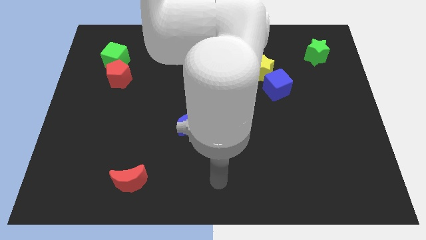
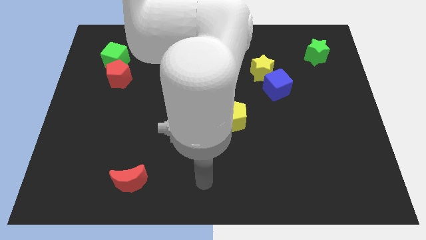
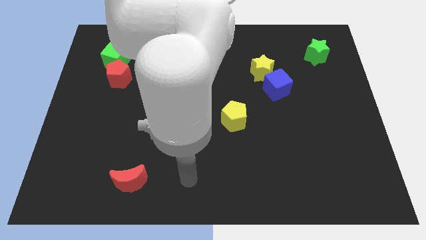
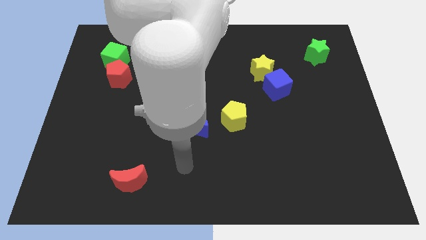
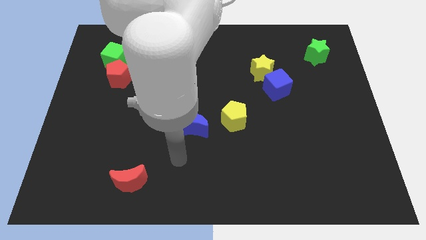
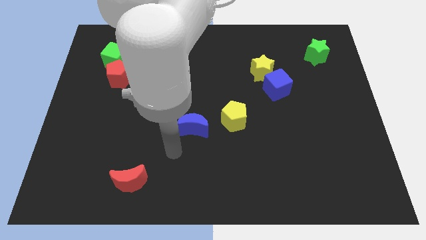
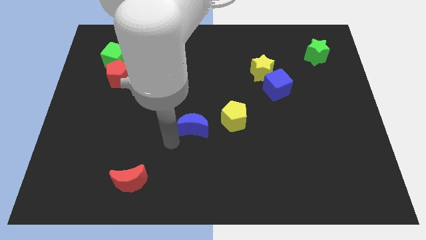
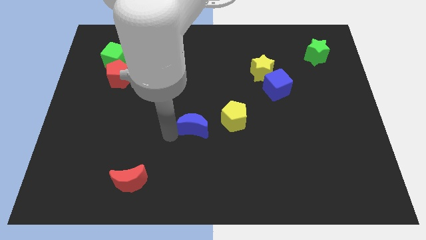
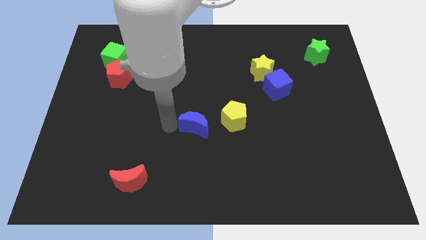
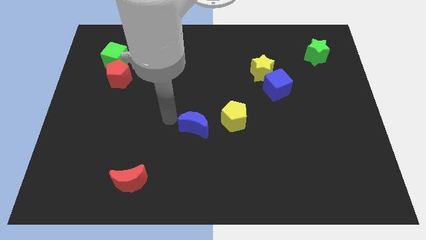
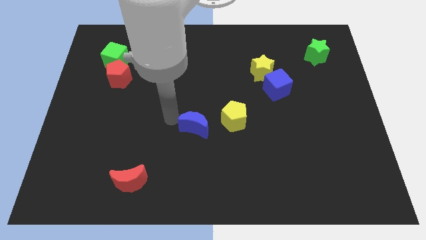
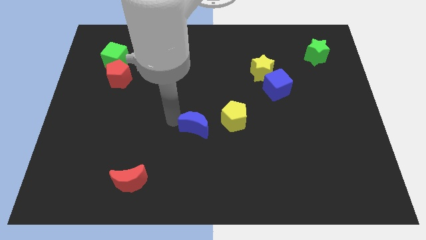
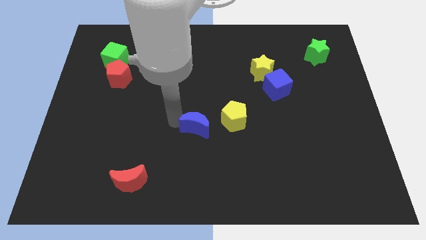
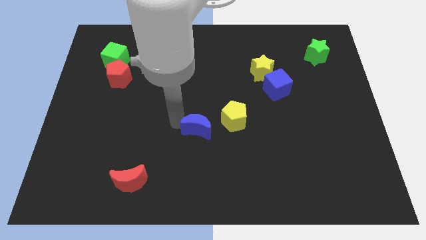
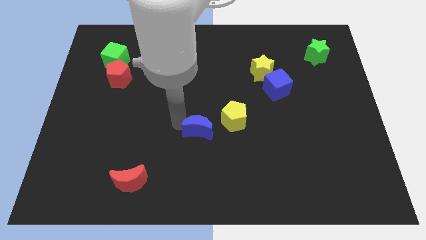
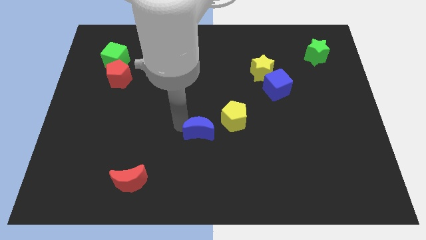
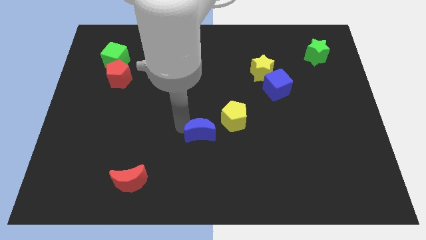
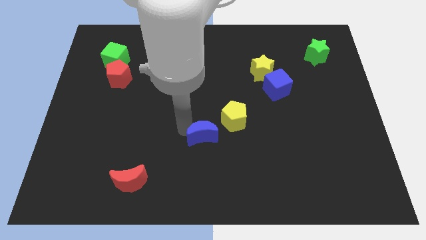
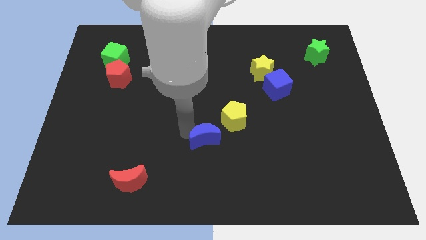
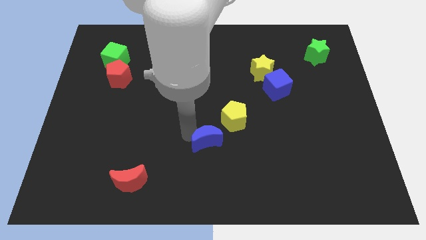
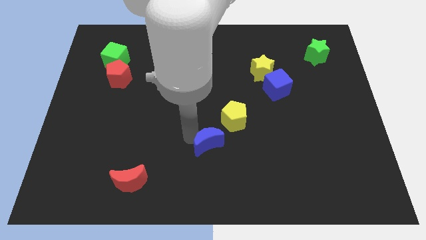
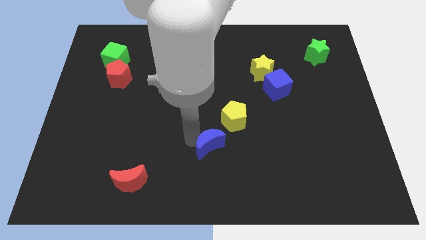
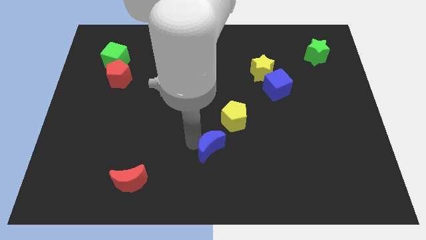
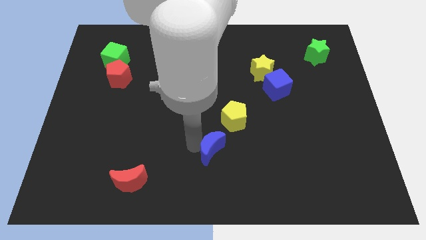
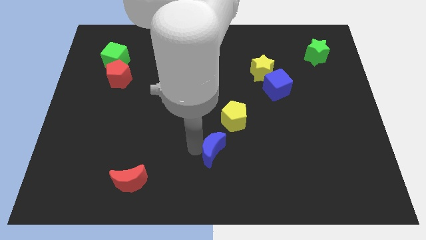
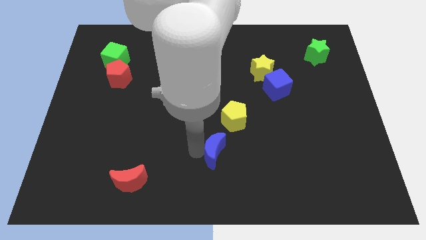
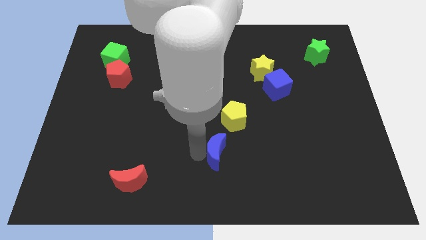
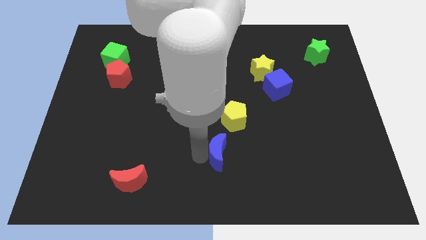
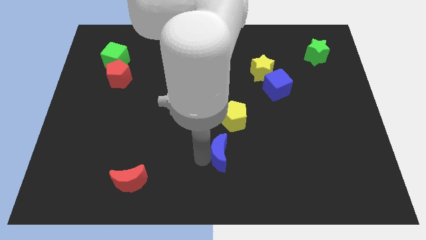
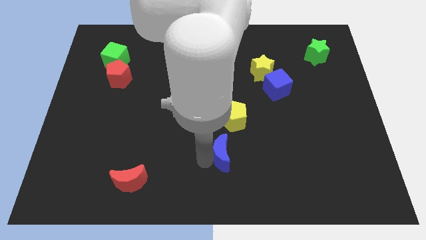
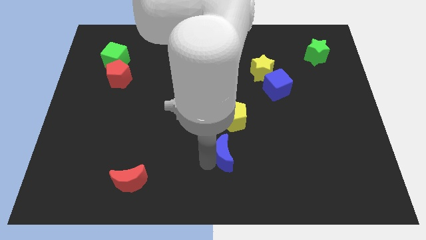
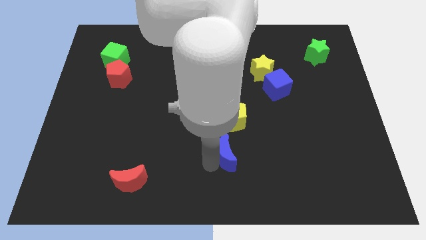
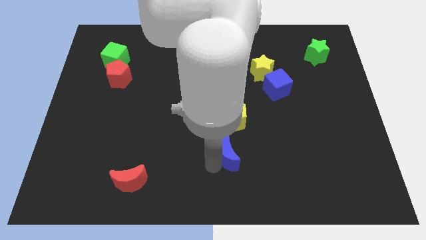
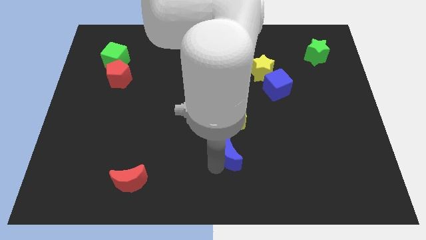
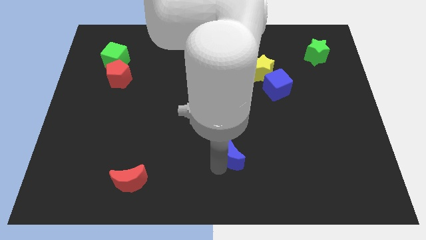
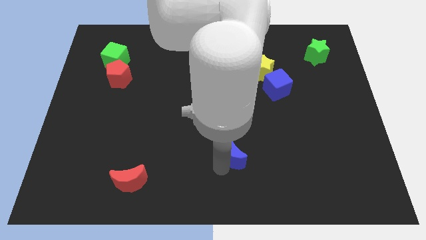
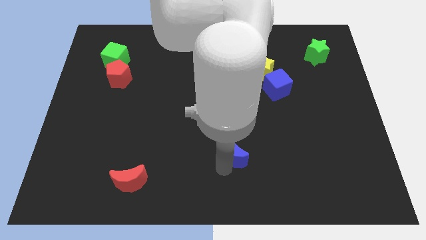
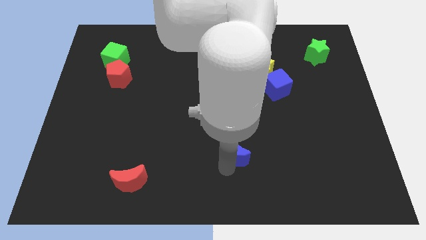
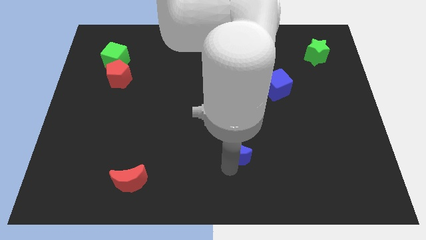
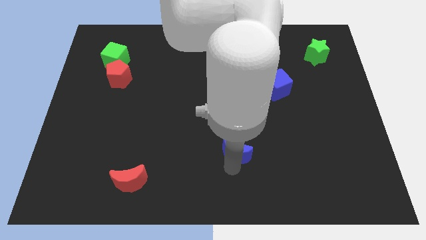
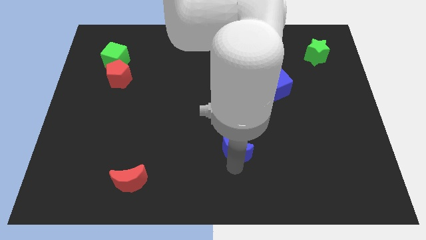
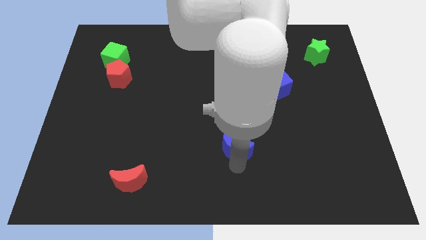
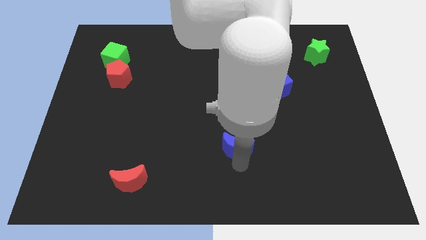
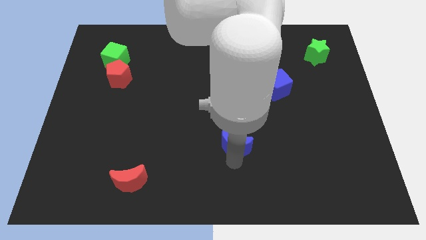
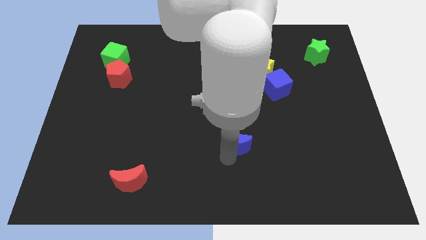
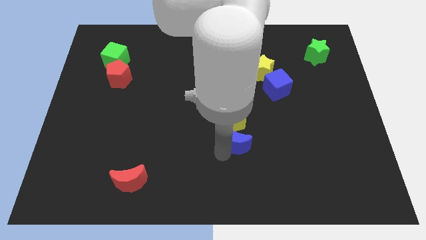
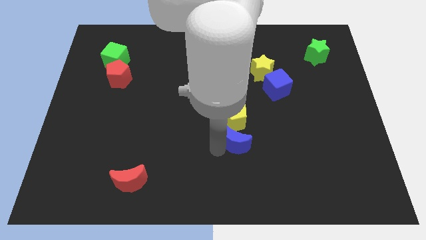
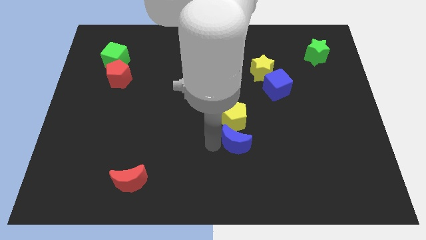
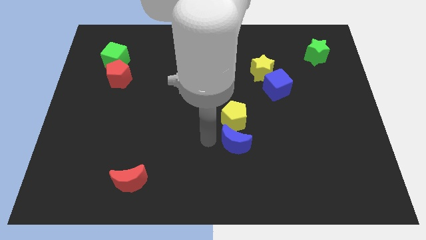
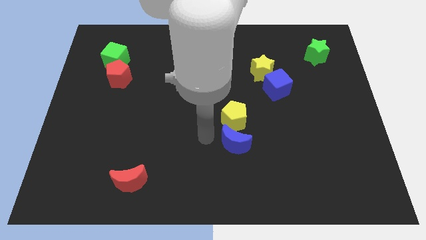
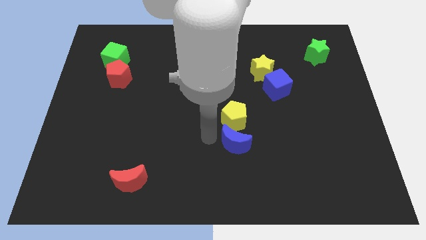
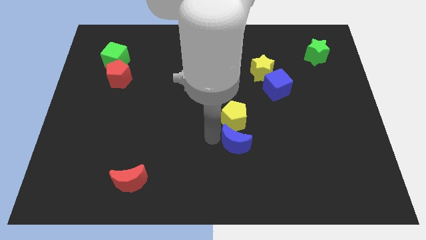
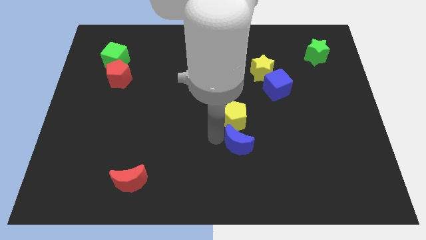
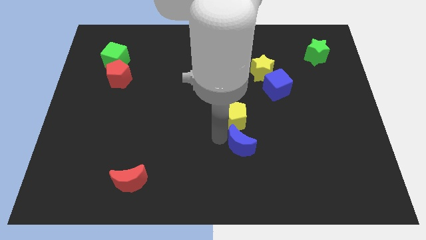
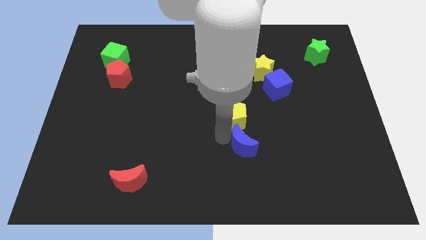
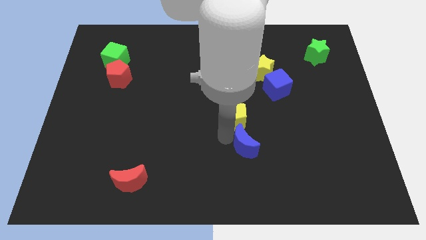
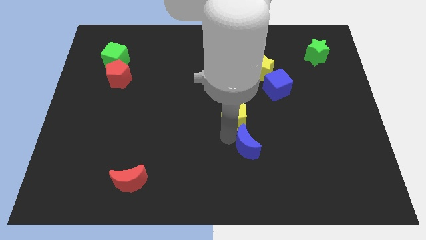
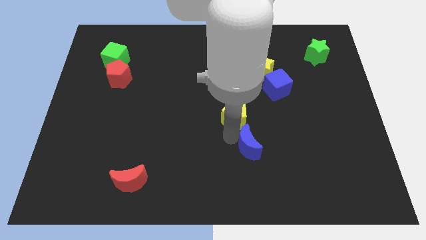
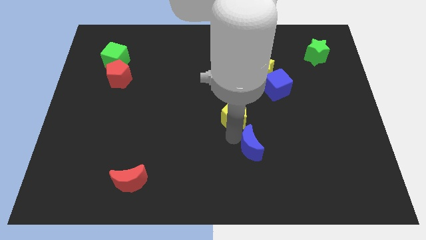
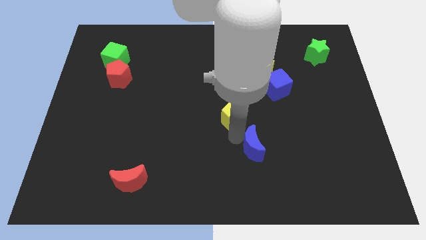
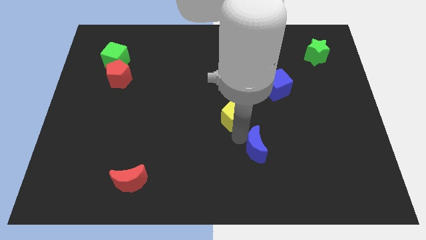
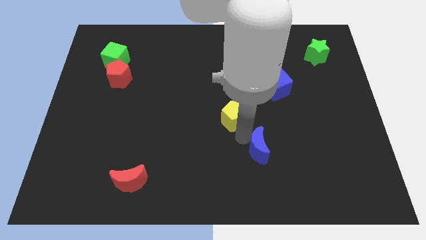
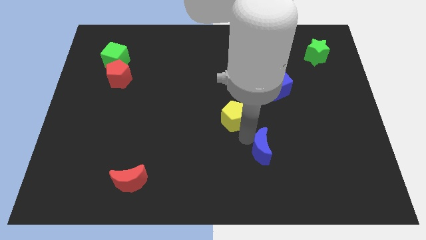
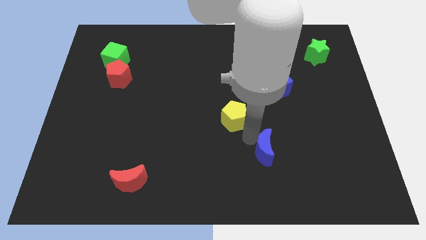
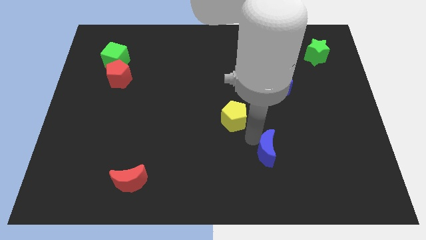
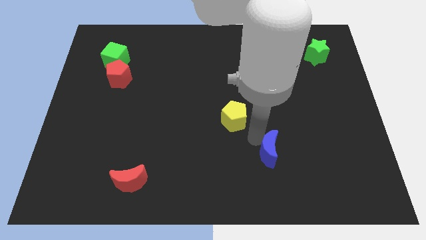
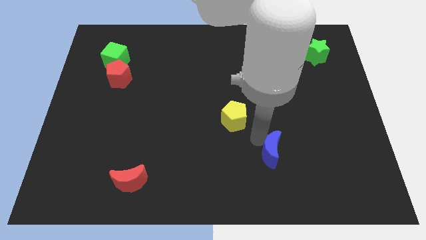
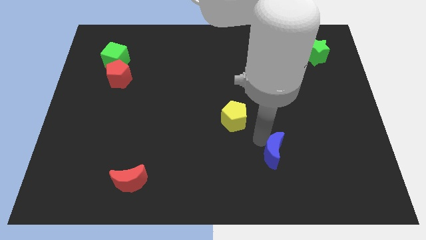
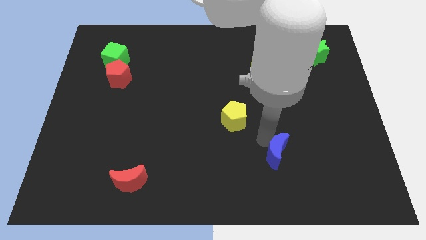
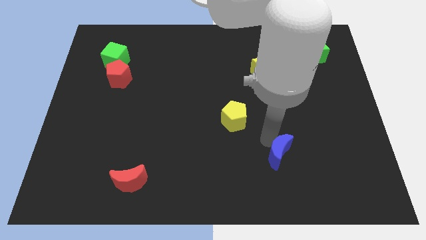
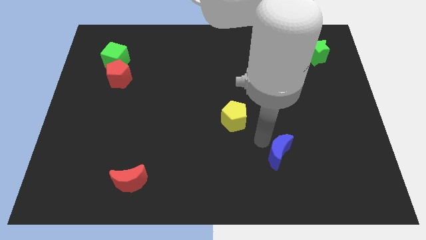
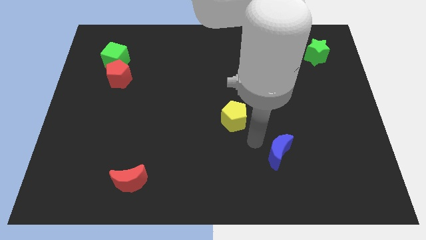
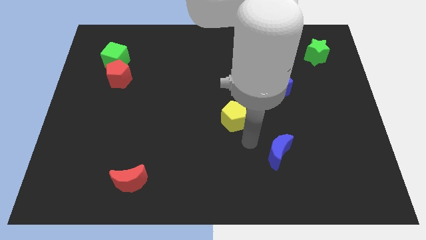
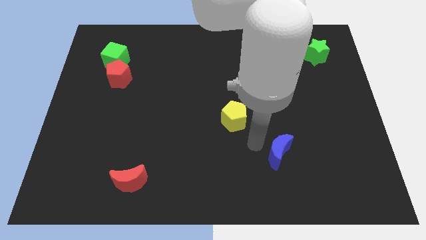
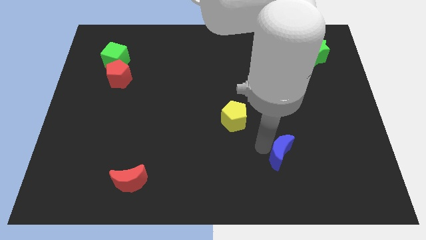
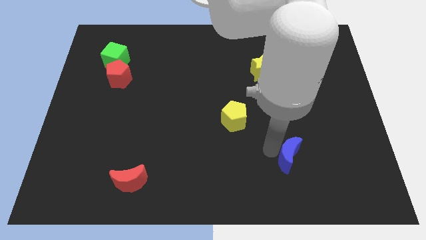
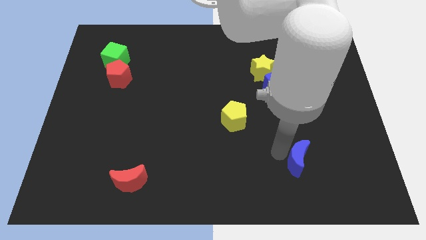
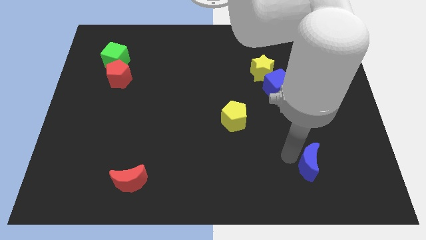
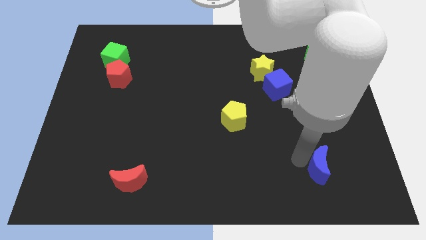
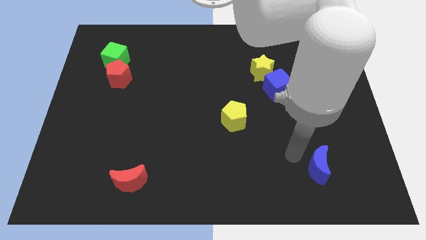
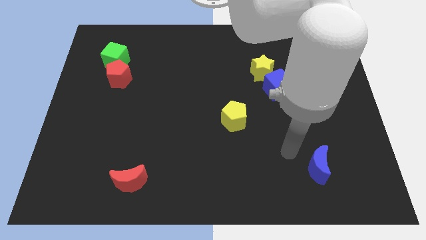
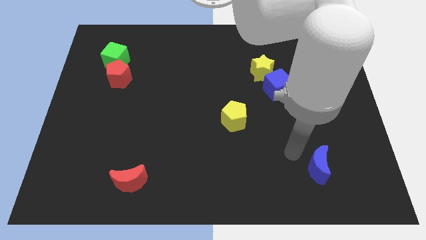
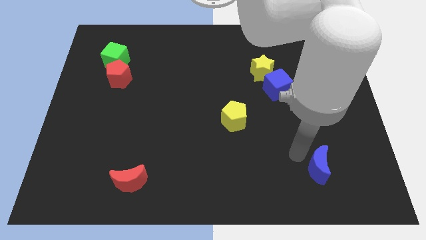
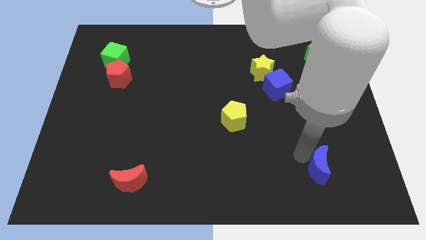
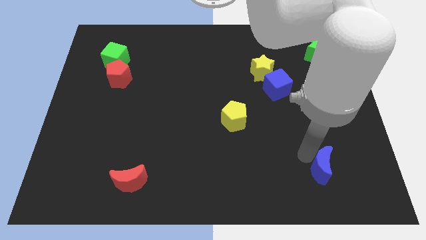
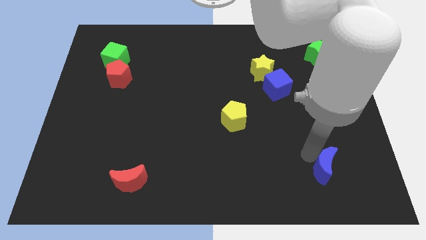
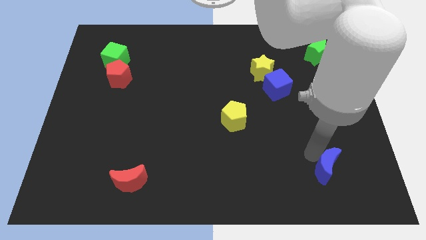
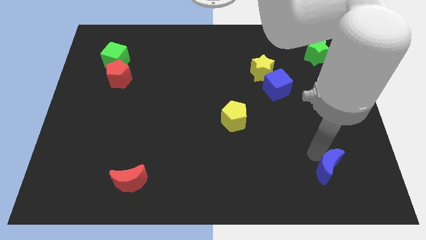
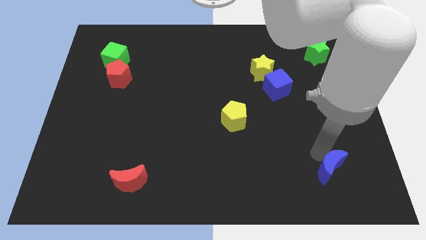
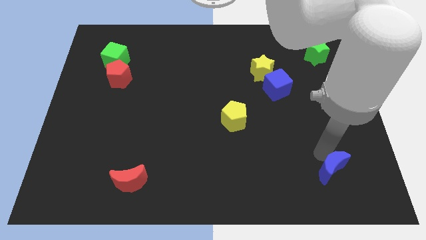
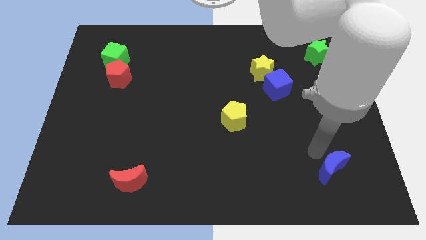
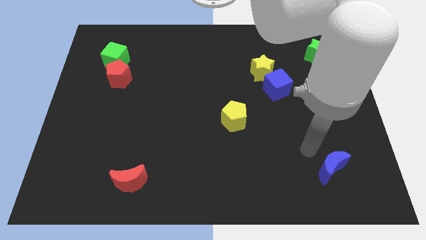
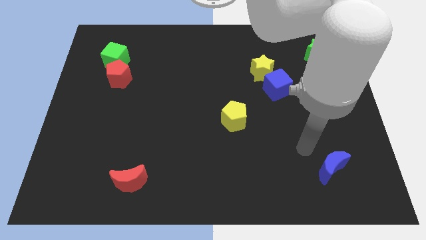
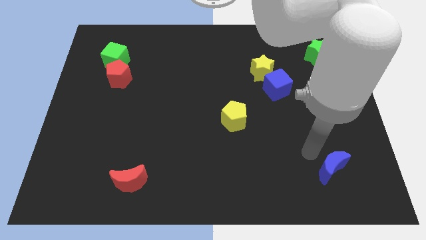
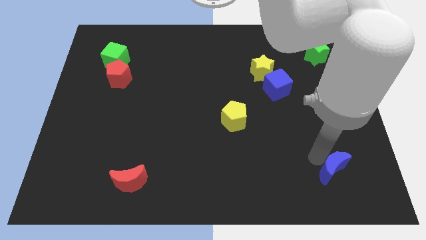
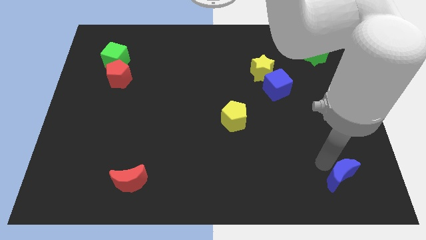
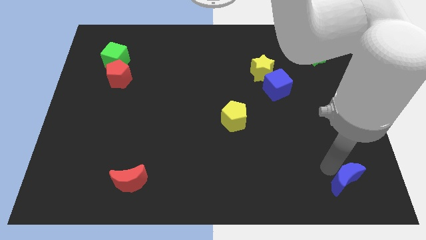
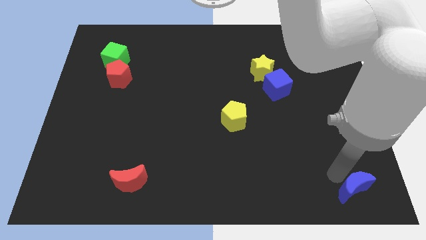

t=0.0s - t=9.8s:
push the blue moon to the bottom right corner
